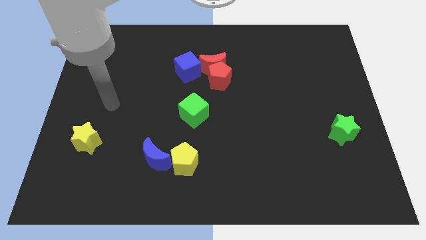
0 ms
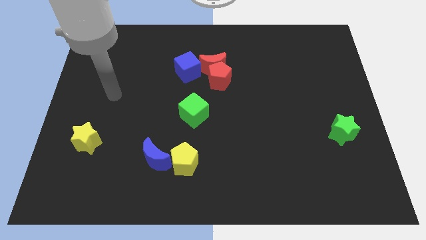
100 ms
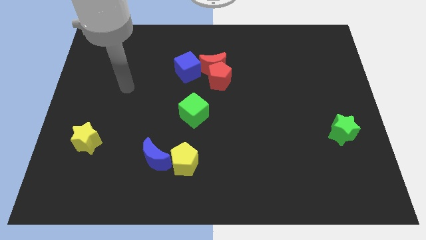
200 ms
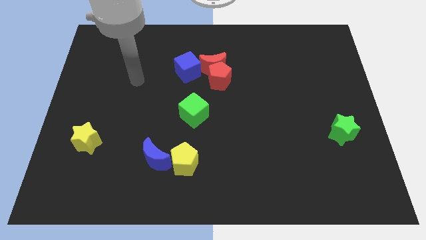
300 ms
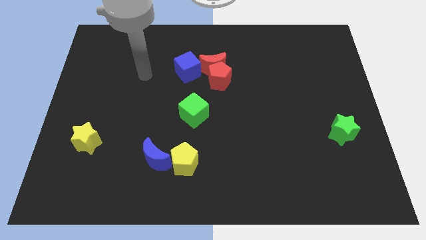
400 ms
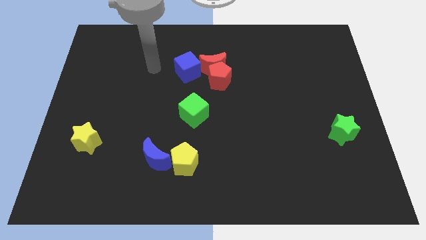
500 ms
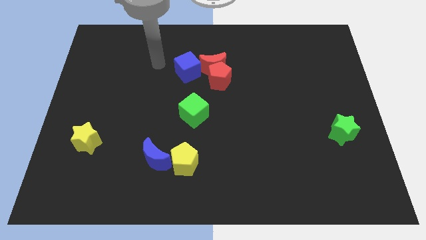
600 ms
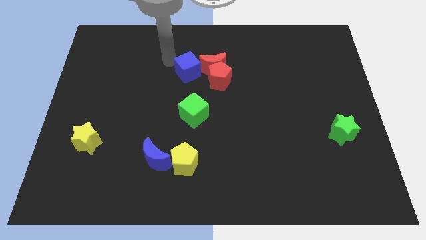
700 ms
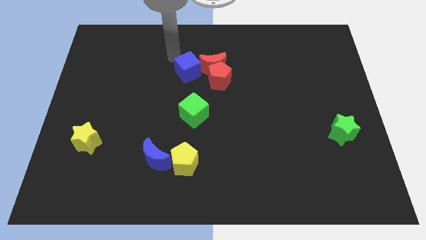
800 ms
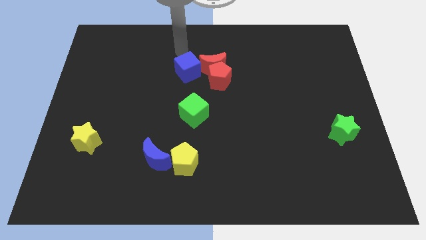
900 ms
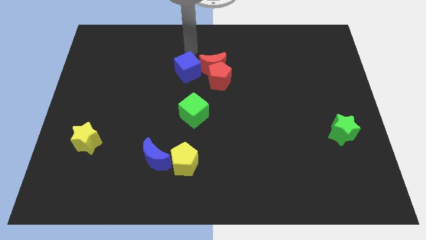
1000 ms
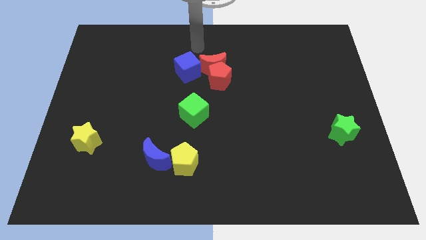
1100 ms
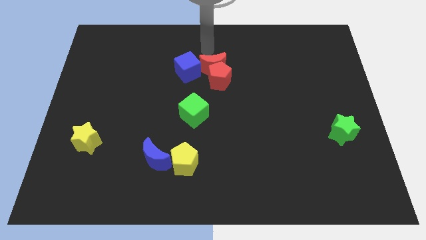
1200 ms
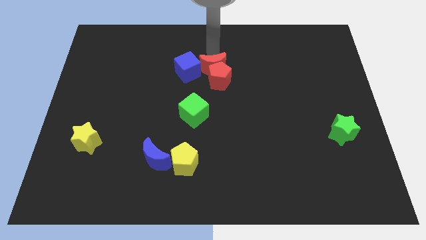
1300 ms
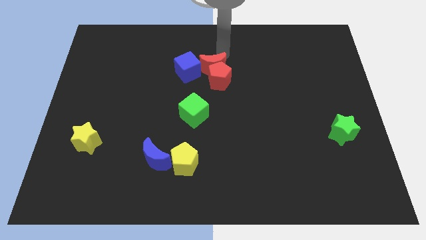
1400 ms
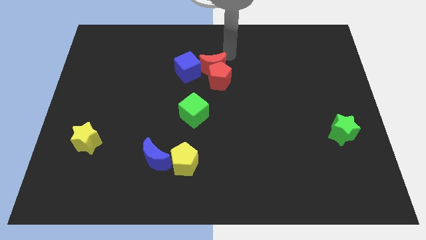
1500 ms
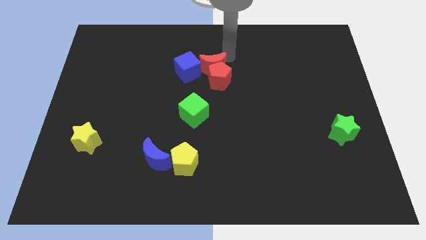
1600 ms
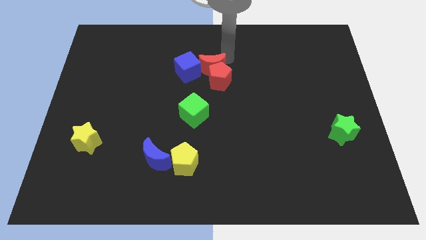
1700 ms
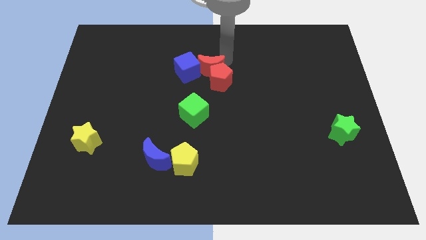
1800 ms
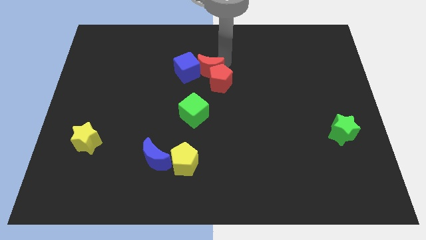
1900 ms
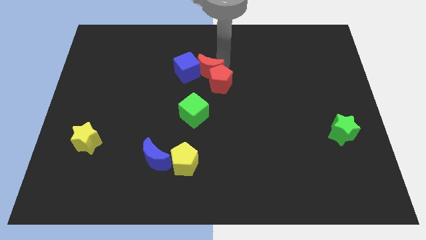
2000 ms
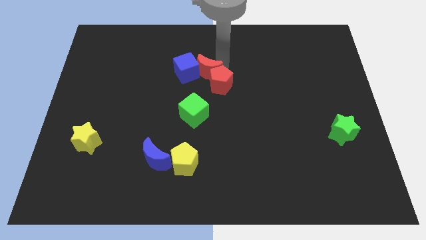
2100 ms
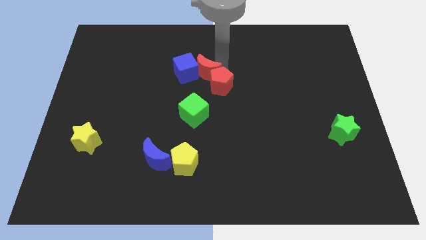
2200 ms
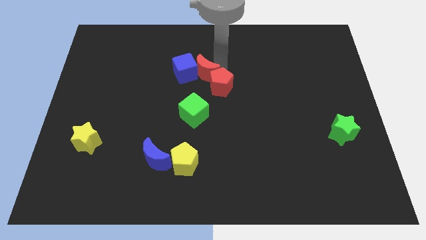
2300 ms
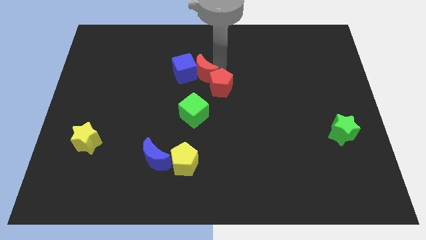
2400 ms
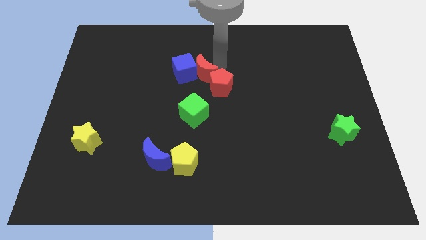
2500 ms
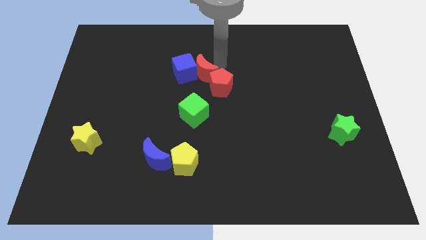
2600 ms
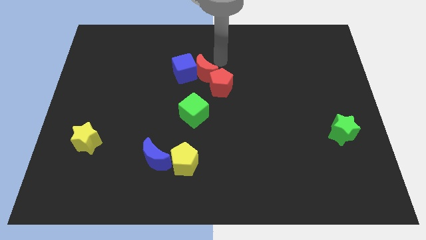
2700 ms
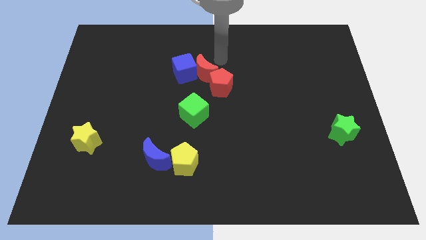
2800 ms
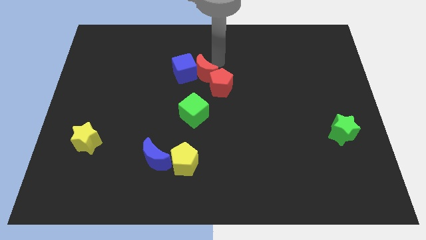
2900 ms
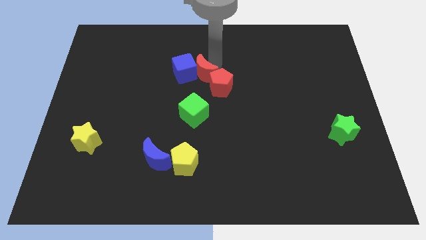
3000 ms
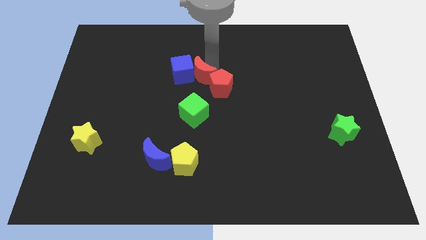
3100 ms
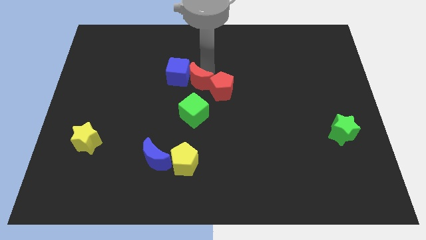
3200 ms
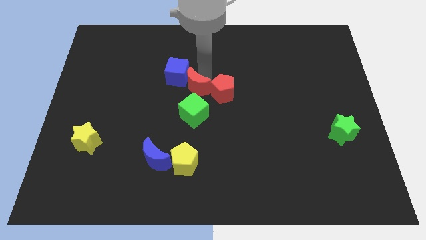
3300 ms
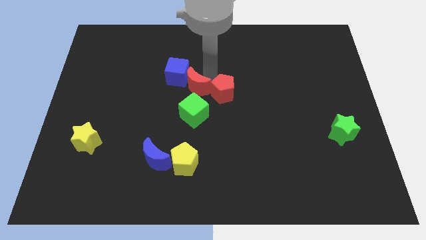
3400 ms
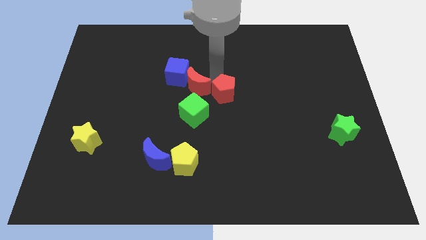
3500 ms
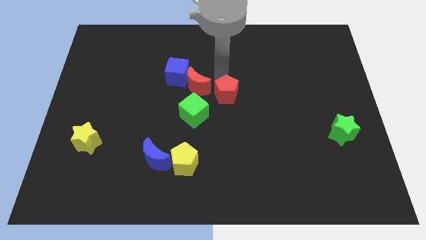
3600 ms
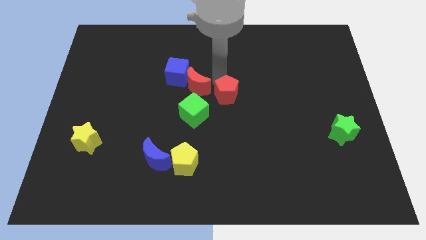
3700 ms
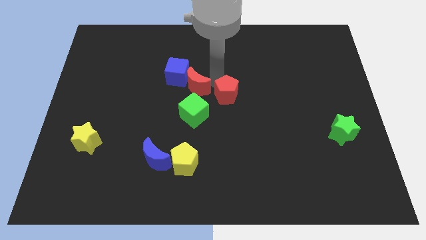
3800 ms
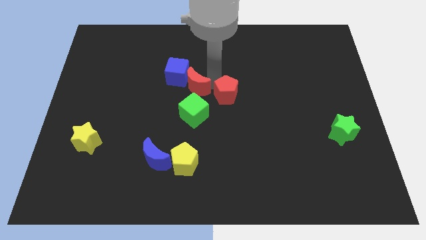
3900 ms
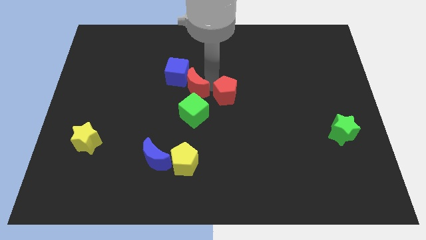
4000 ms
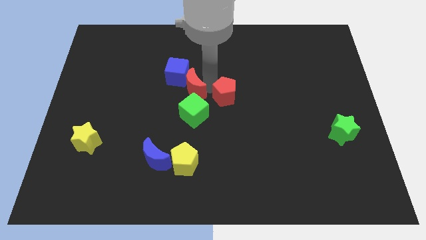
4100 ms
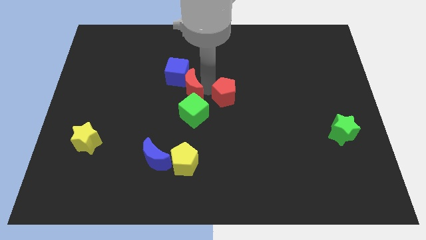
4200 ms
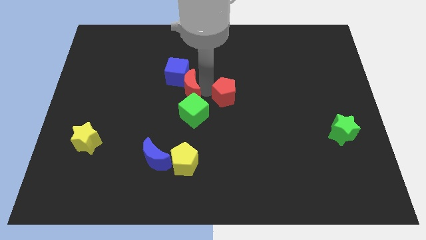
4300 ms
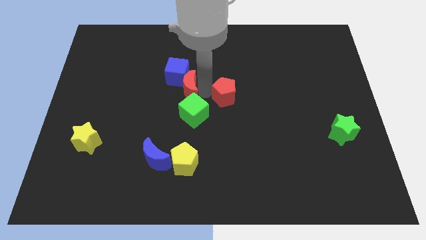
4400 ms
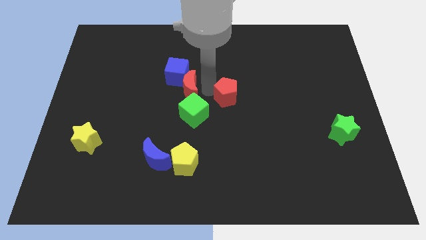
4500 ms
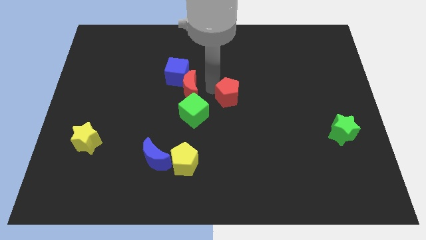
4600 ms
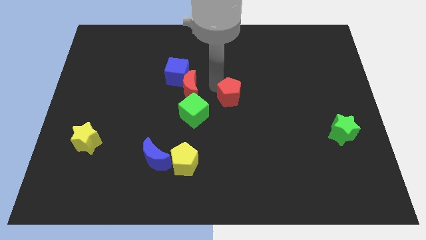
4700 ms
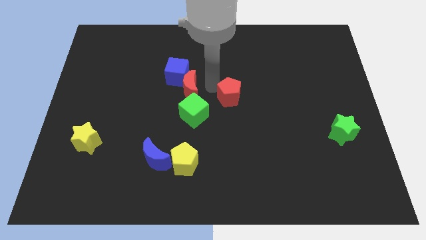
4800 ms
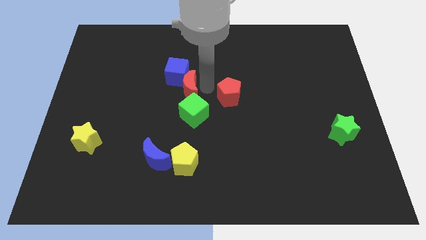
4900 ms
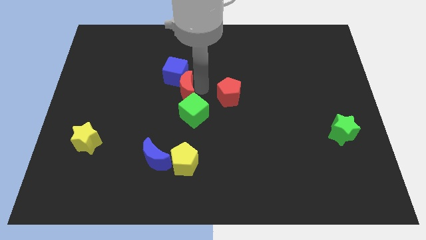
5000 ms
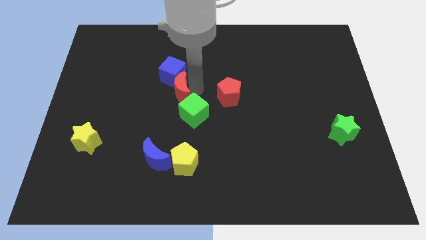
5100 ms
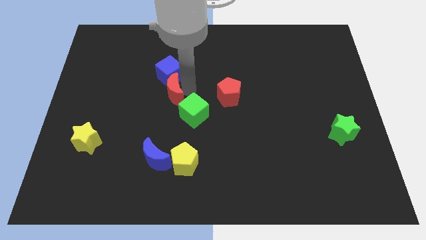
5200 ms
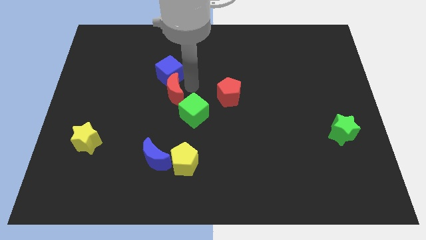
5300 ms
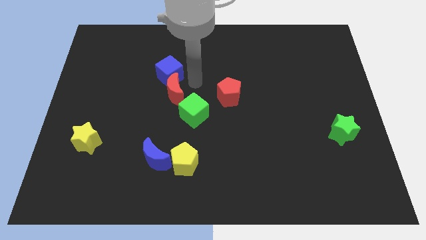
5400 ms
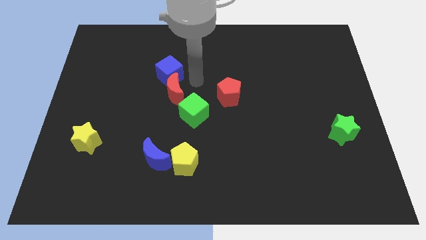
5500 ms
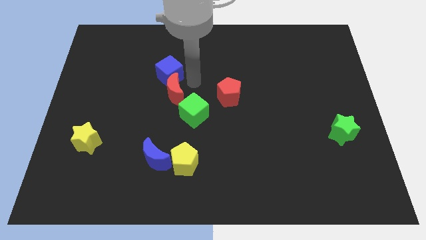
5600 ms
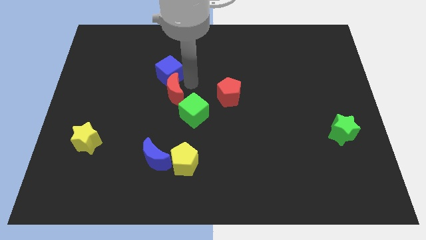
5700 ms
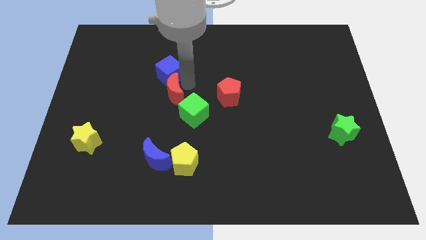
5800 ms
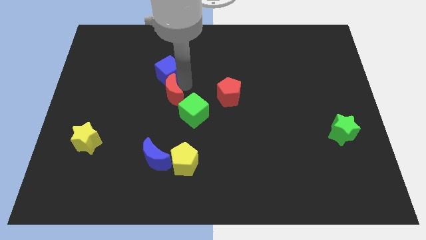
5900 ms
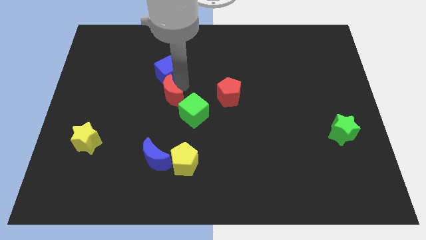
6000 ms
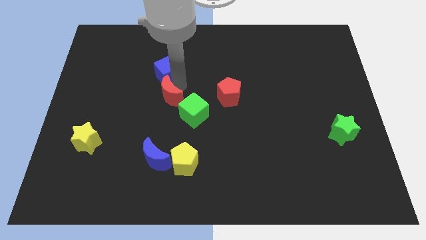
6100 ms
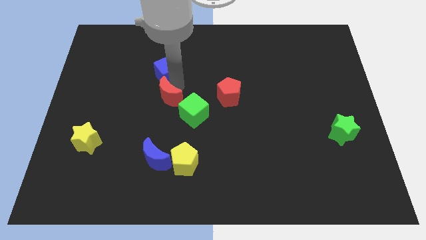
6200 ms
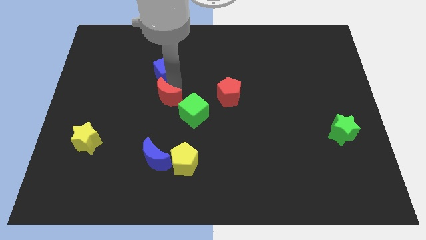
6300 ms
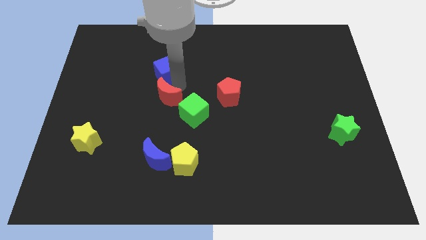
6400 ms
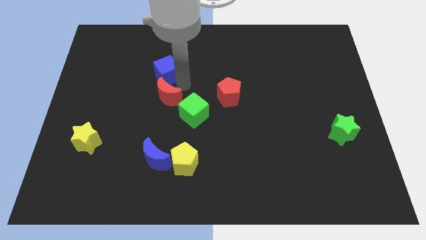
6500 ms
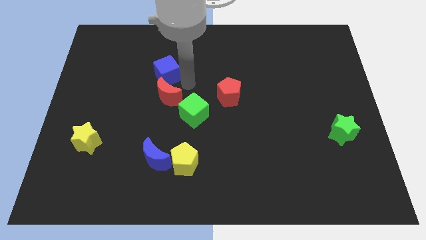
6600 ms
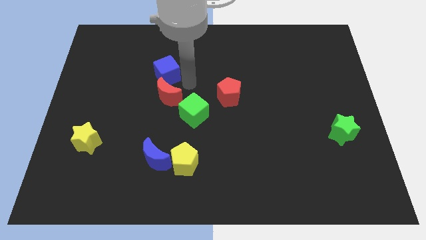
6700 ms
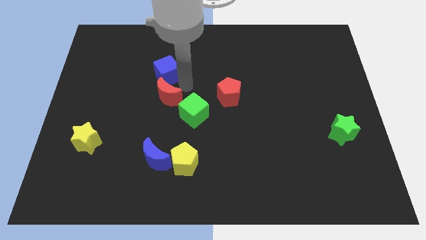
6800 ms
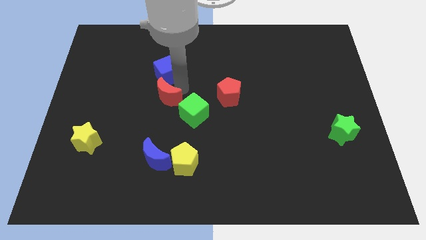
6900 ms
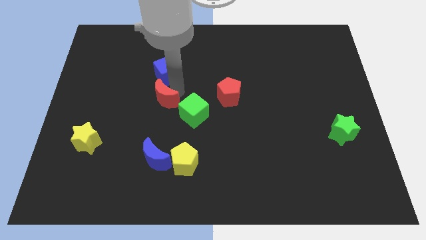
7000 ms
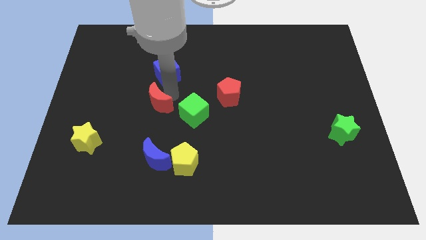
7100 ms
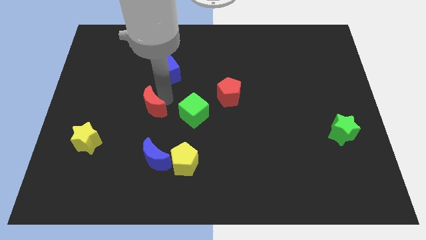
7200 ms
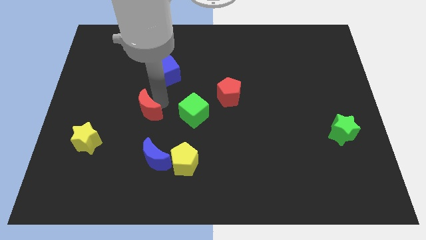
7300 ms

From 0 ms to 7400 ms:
move the red moon down and then left

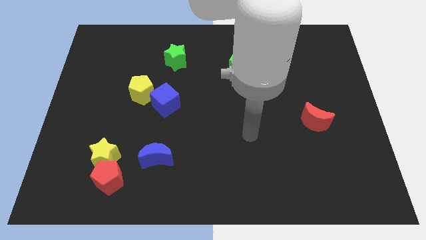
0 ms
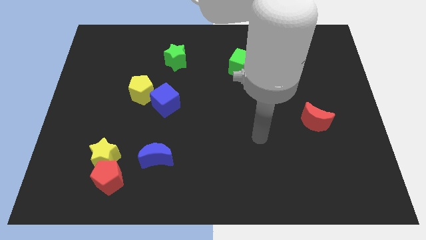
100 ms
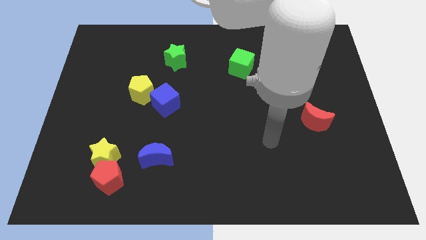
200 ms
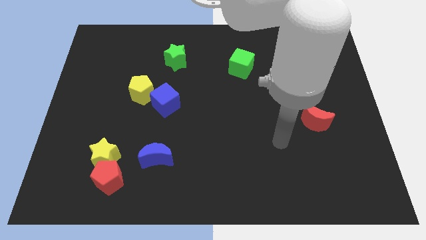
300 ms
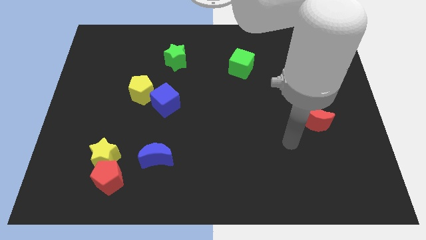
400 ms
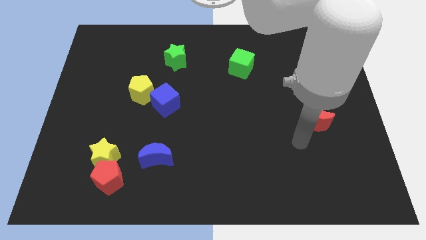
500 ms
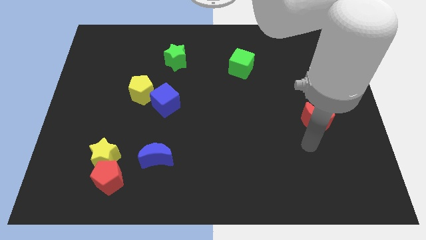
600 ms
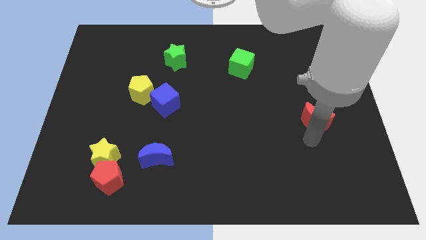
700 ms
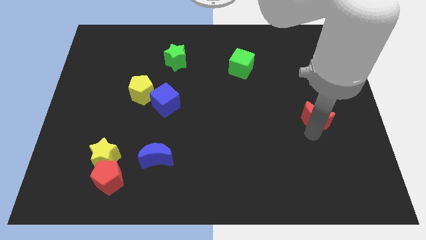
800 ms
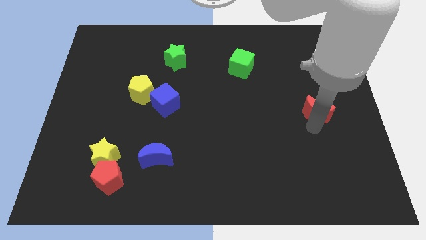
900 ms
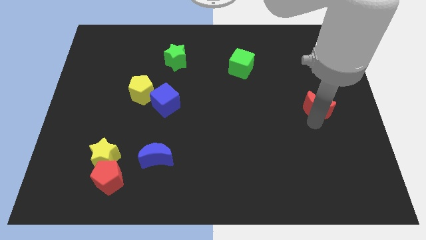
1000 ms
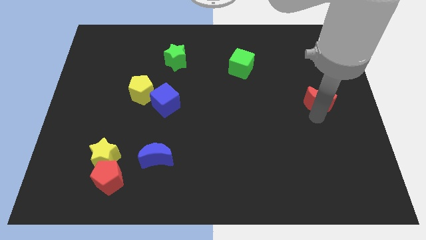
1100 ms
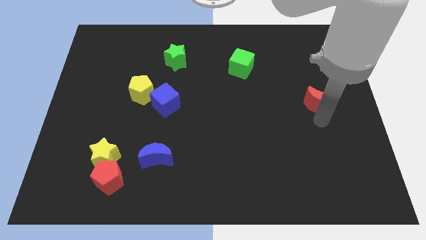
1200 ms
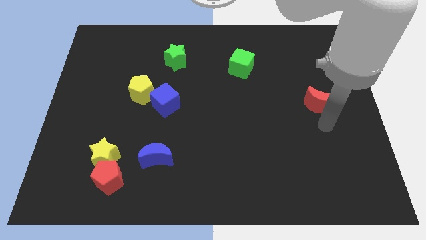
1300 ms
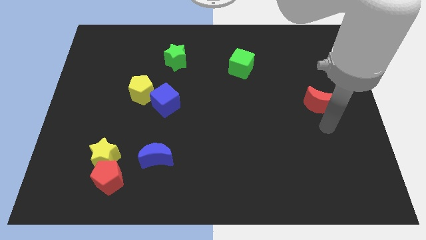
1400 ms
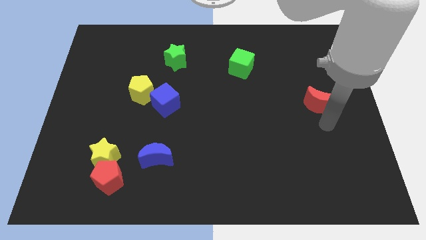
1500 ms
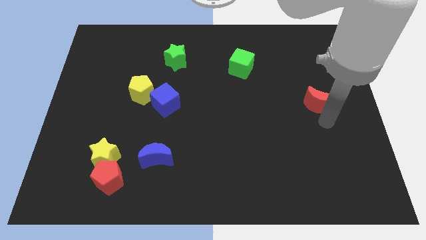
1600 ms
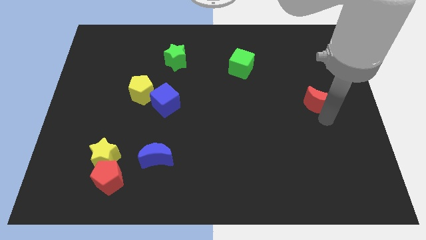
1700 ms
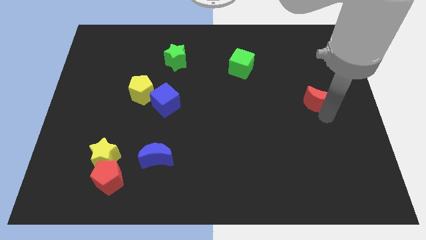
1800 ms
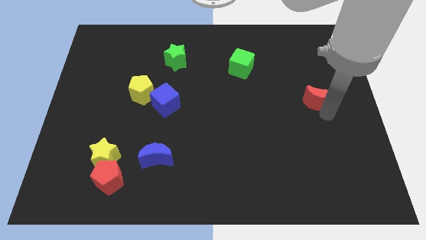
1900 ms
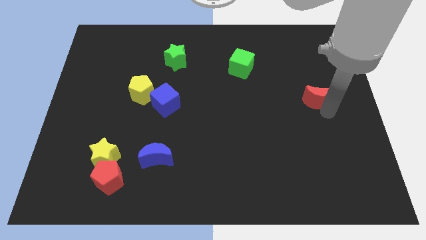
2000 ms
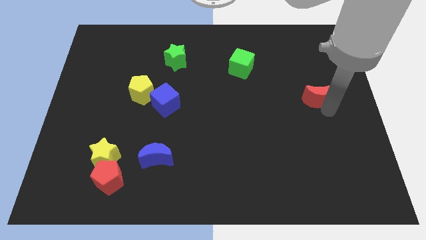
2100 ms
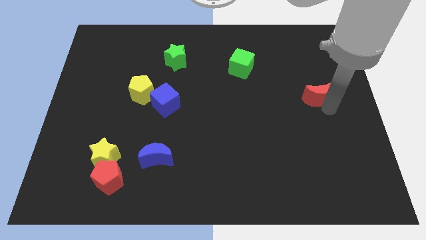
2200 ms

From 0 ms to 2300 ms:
slightly move the red moon up
